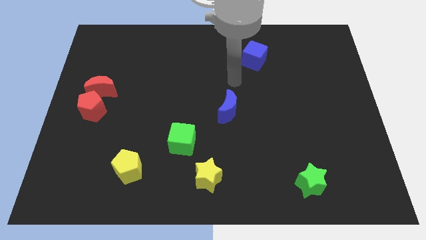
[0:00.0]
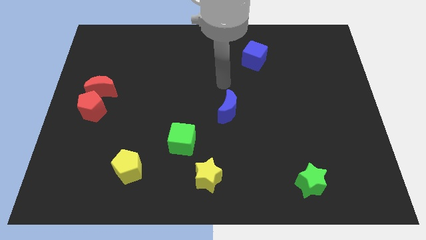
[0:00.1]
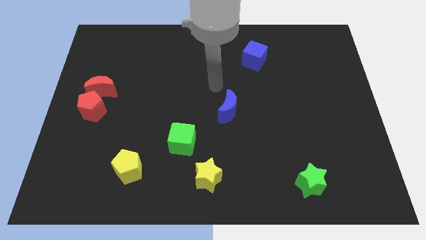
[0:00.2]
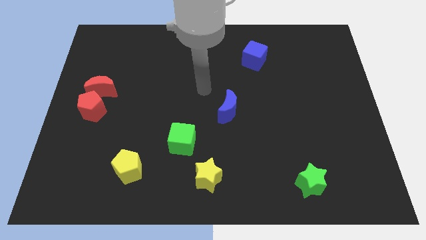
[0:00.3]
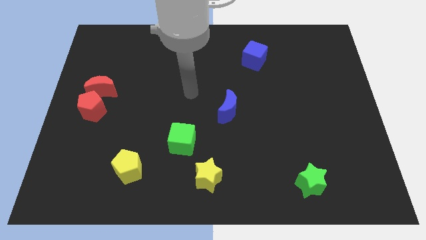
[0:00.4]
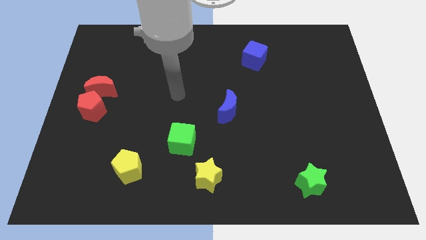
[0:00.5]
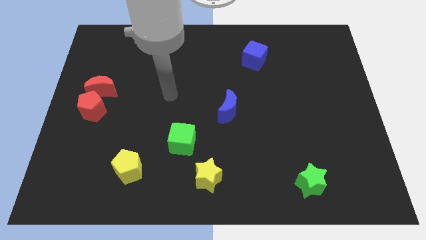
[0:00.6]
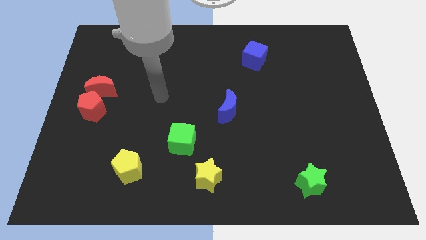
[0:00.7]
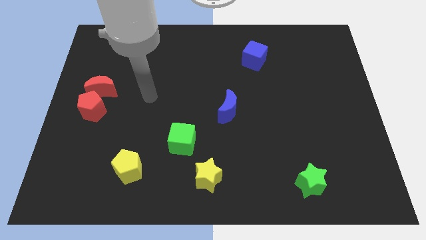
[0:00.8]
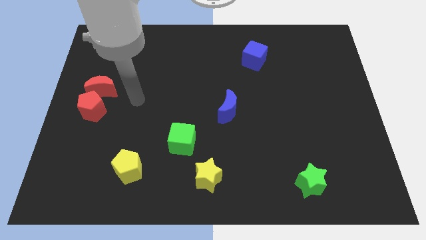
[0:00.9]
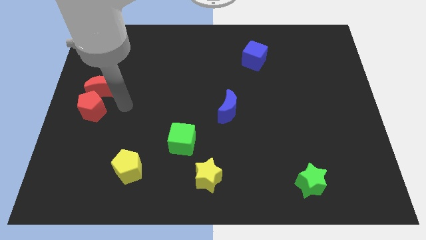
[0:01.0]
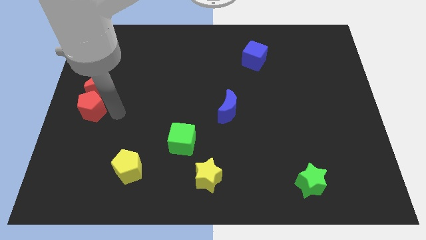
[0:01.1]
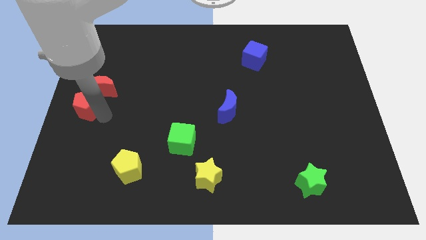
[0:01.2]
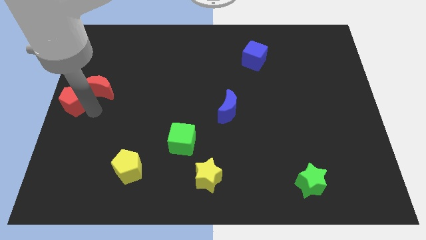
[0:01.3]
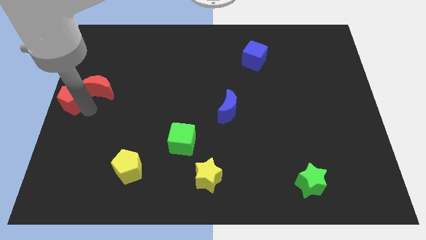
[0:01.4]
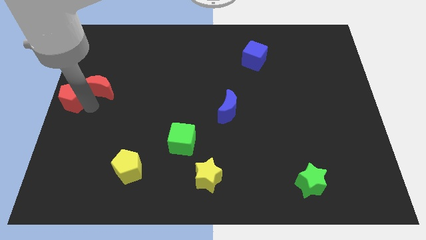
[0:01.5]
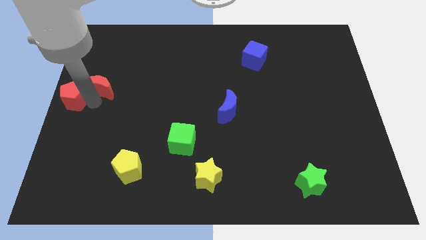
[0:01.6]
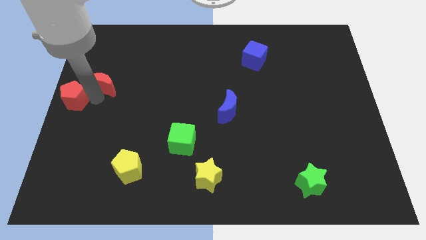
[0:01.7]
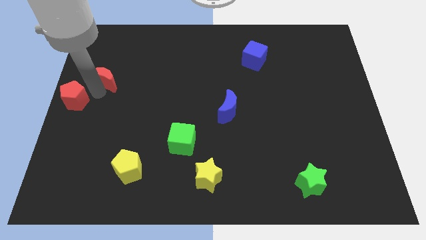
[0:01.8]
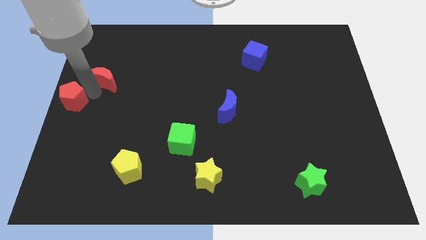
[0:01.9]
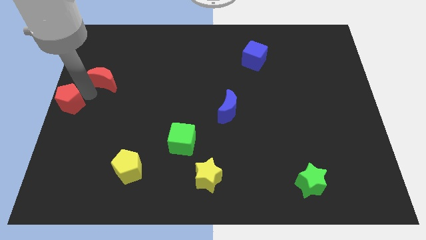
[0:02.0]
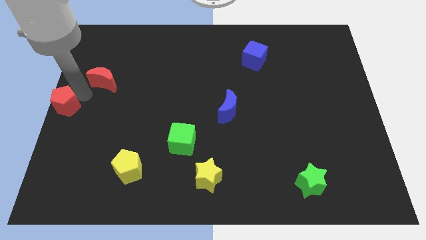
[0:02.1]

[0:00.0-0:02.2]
pull the red moon apart from the red pentagon

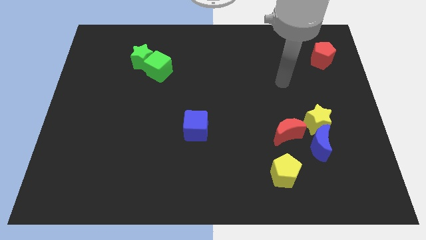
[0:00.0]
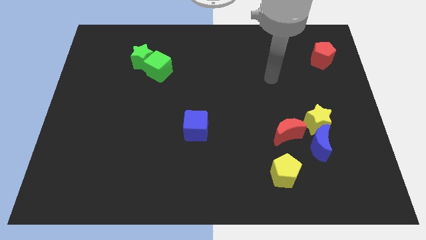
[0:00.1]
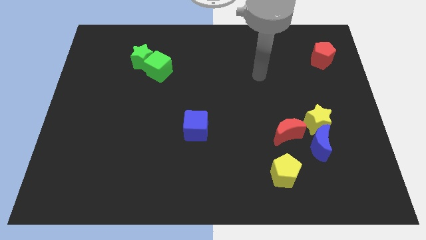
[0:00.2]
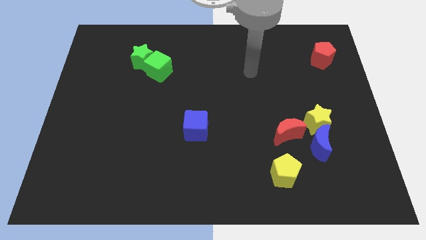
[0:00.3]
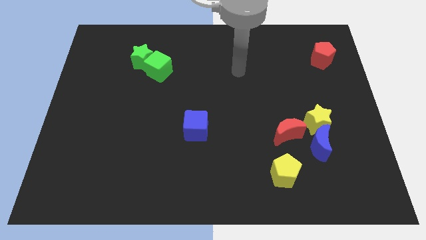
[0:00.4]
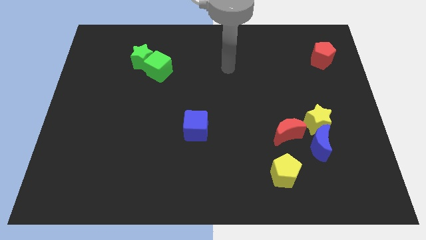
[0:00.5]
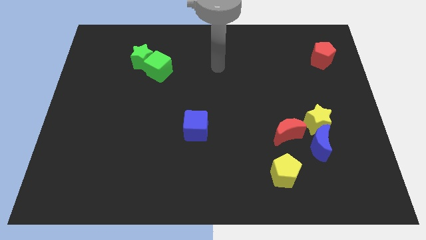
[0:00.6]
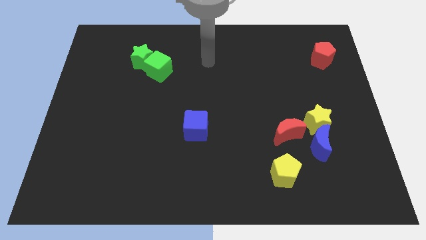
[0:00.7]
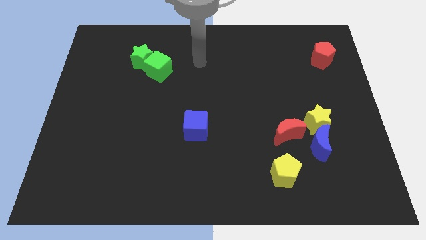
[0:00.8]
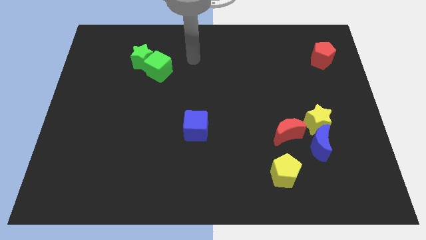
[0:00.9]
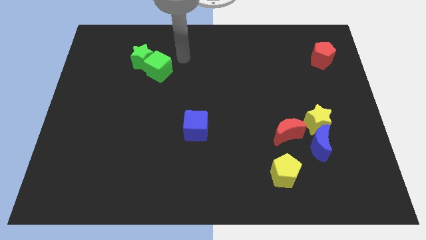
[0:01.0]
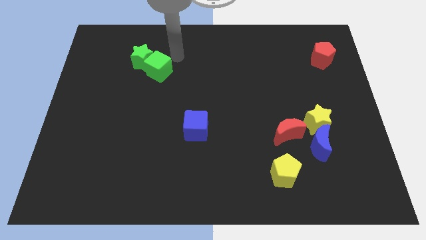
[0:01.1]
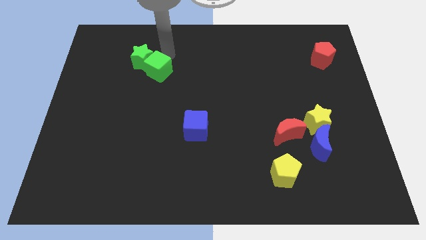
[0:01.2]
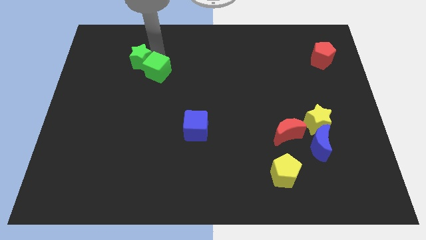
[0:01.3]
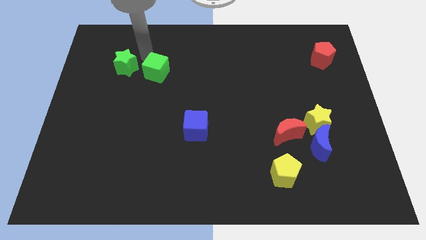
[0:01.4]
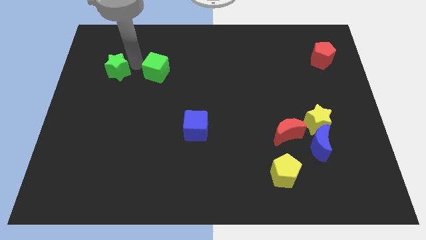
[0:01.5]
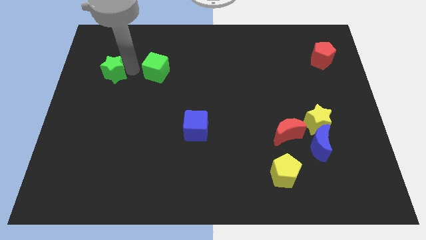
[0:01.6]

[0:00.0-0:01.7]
pull the green cube apart from the green star

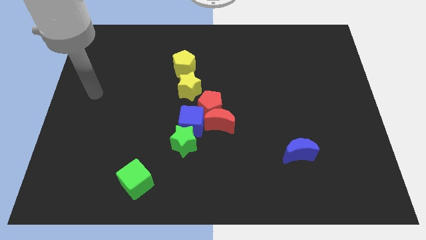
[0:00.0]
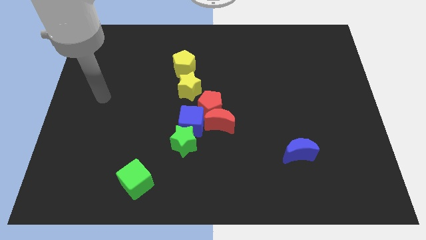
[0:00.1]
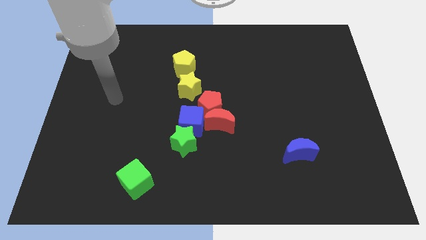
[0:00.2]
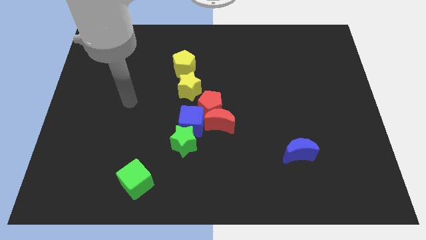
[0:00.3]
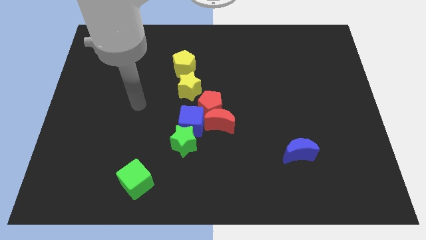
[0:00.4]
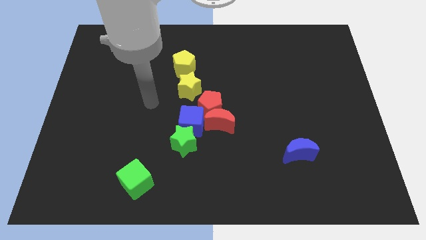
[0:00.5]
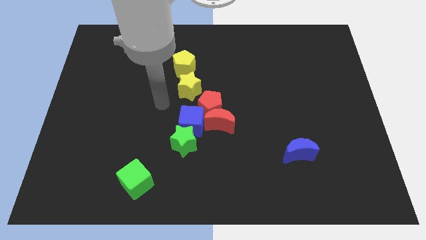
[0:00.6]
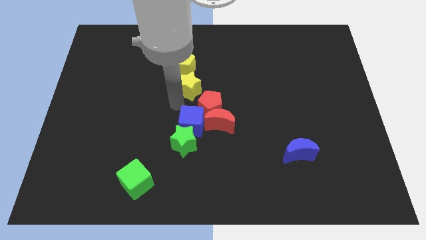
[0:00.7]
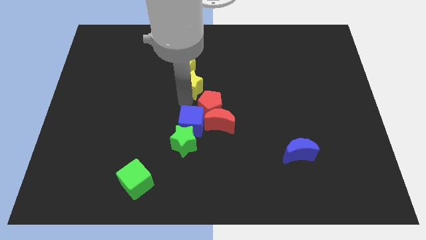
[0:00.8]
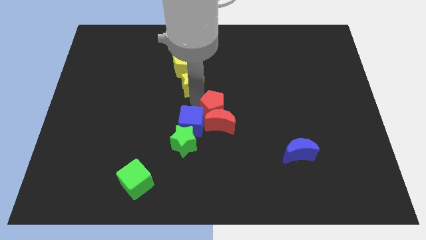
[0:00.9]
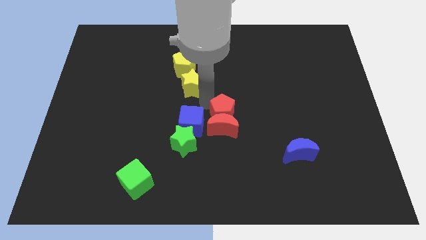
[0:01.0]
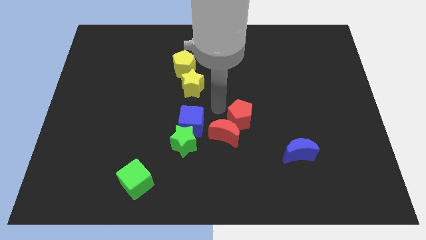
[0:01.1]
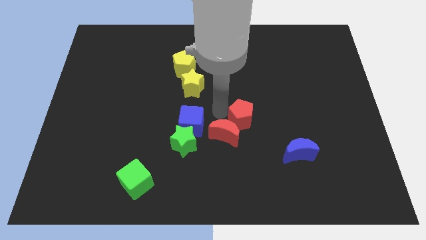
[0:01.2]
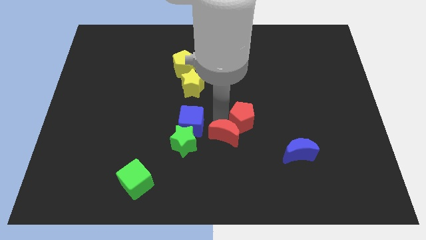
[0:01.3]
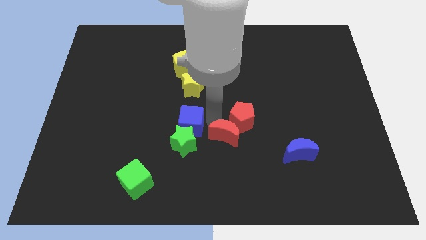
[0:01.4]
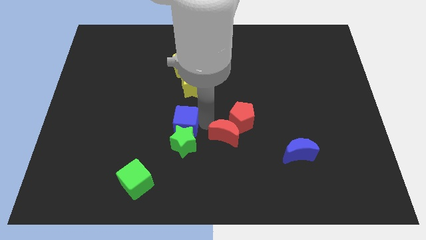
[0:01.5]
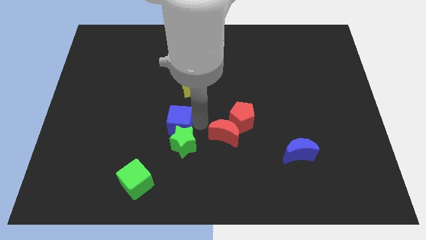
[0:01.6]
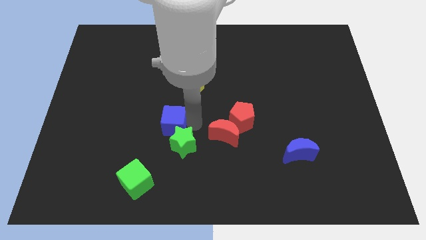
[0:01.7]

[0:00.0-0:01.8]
separate the blue cube from the green star, red pentagon, and red moon

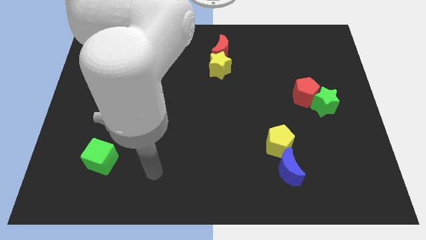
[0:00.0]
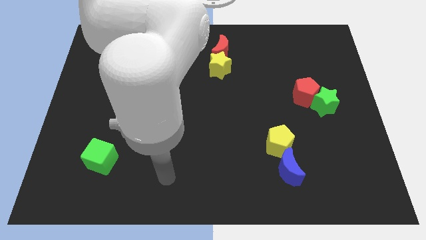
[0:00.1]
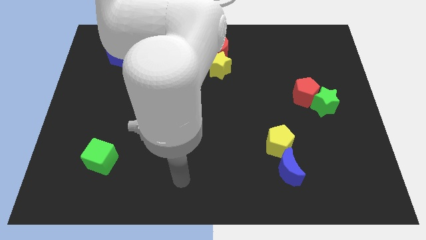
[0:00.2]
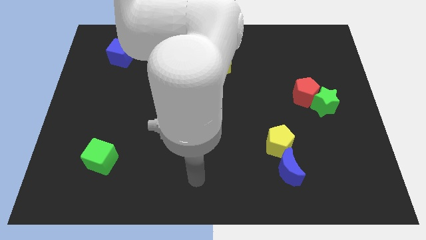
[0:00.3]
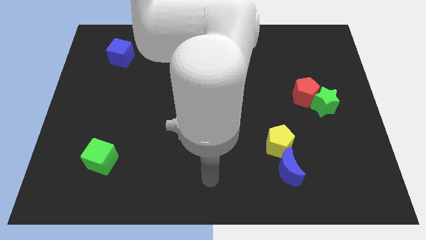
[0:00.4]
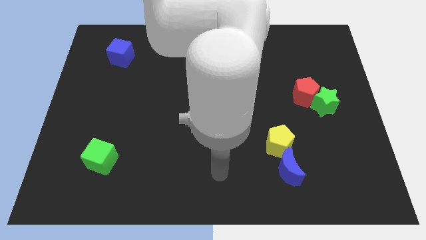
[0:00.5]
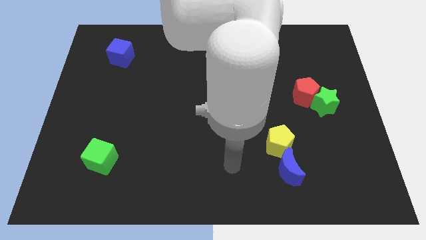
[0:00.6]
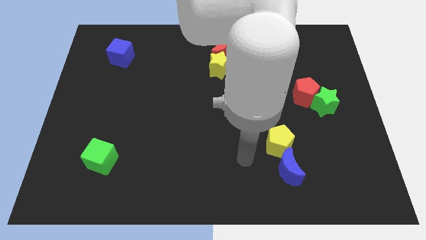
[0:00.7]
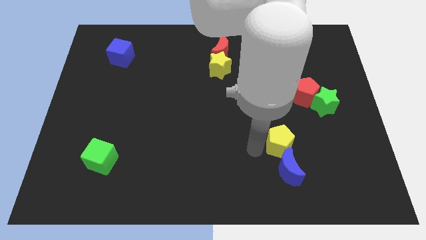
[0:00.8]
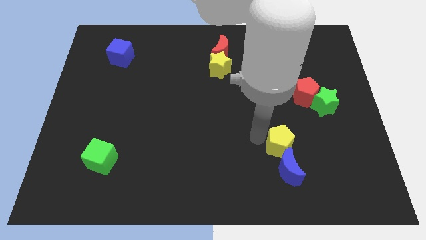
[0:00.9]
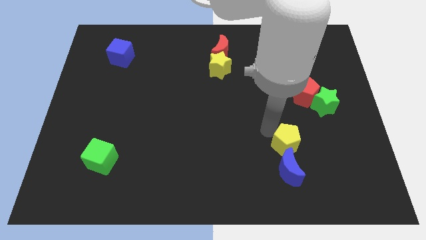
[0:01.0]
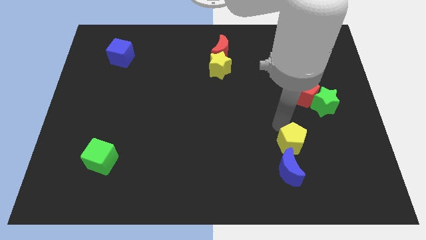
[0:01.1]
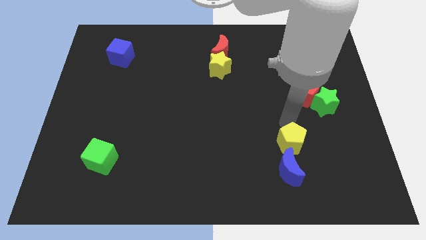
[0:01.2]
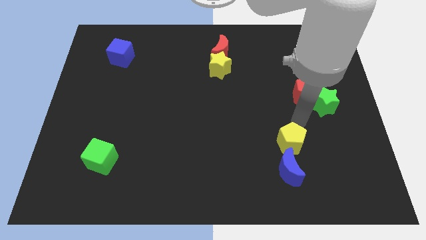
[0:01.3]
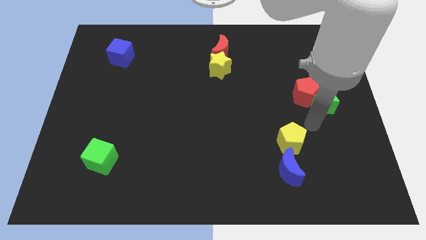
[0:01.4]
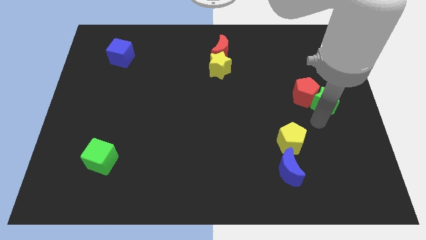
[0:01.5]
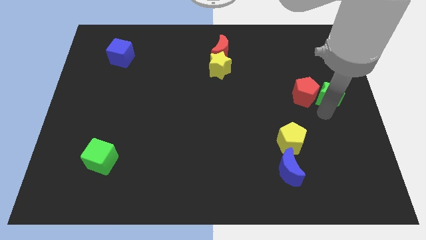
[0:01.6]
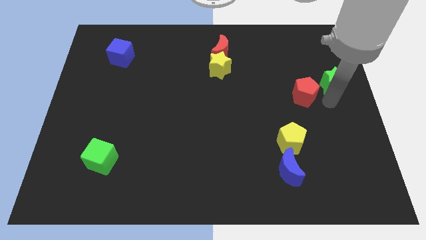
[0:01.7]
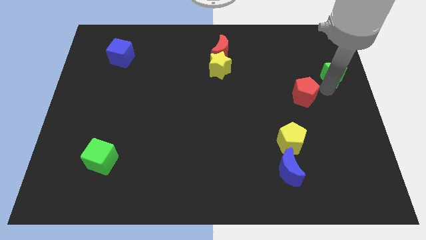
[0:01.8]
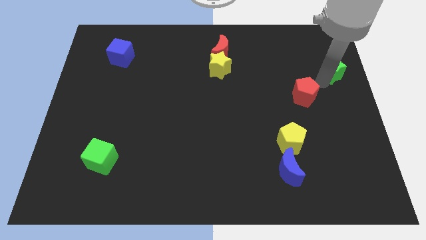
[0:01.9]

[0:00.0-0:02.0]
move the red pentagon away from the green star

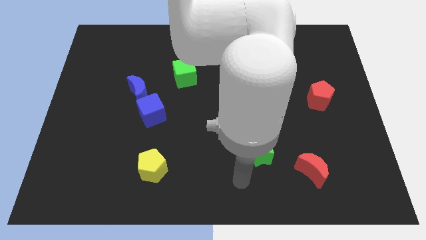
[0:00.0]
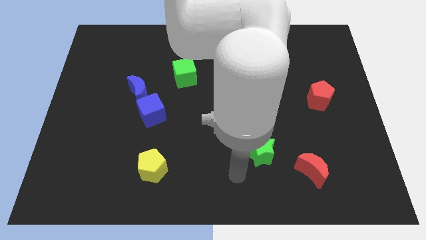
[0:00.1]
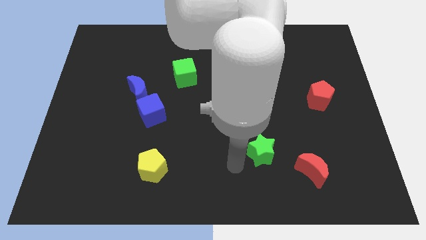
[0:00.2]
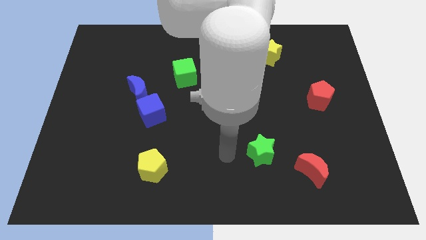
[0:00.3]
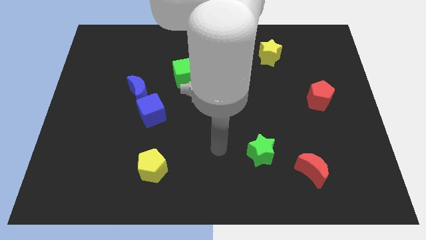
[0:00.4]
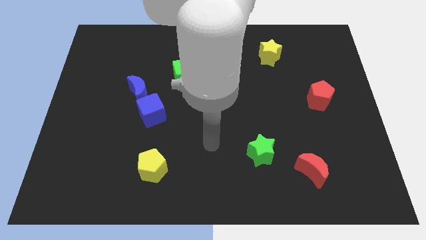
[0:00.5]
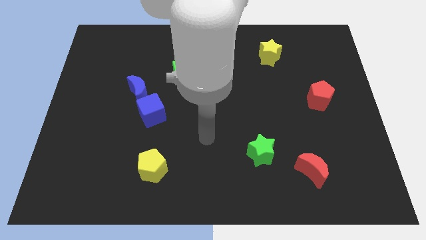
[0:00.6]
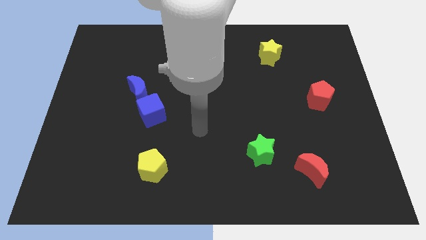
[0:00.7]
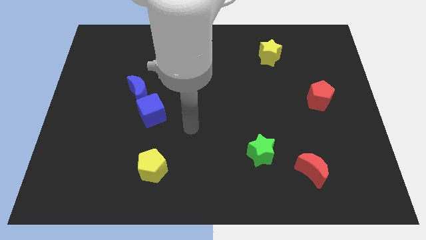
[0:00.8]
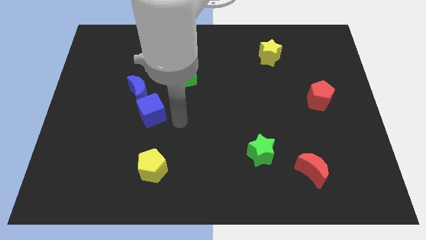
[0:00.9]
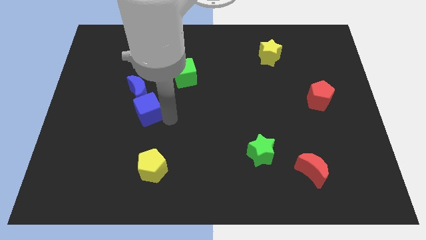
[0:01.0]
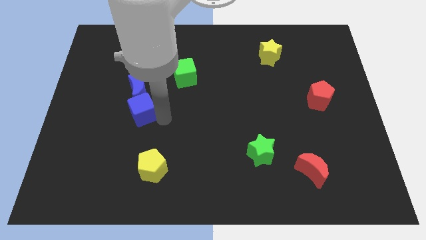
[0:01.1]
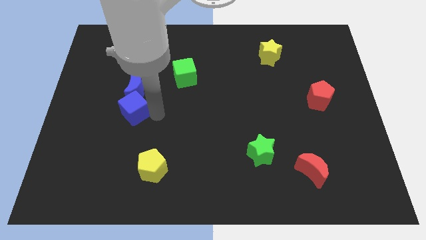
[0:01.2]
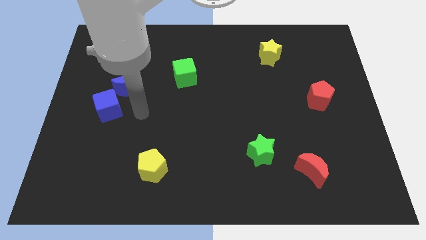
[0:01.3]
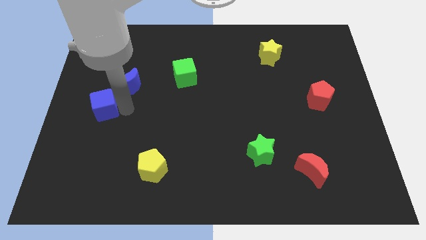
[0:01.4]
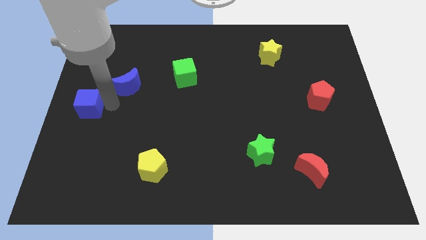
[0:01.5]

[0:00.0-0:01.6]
move the blue moon away from the blue cube
